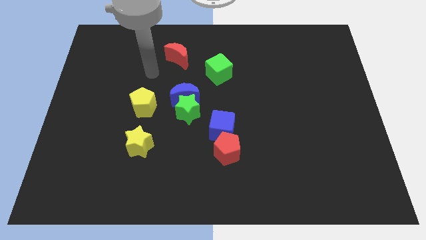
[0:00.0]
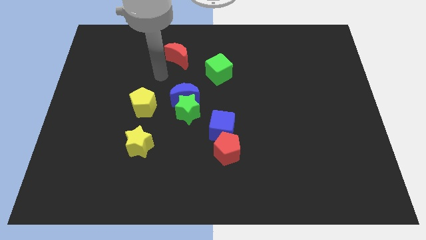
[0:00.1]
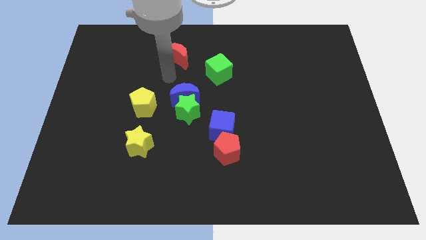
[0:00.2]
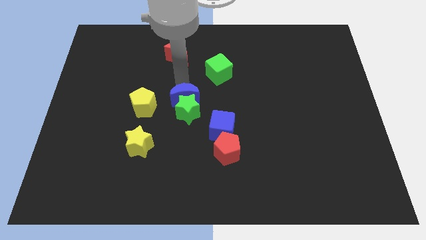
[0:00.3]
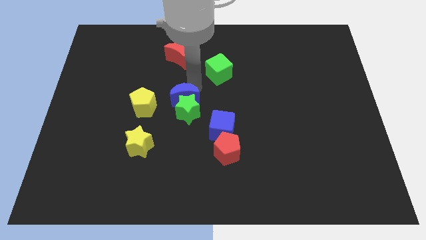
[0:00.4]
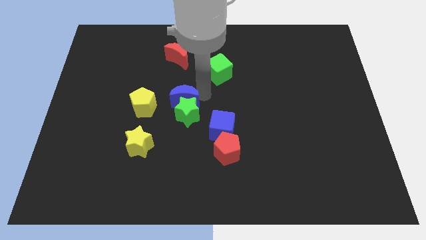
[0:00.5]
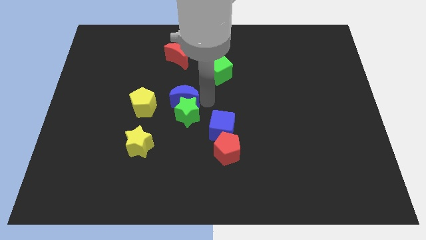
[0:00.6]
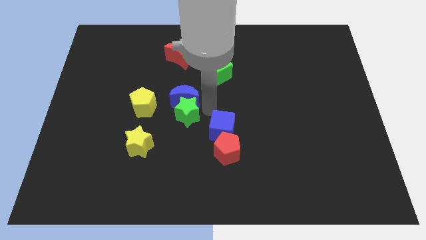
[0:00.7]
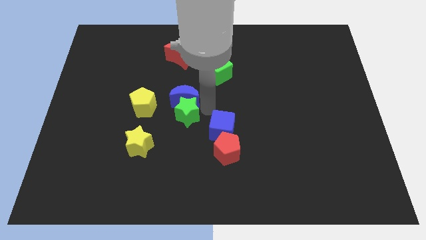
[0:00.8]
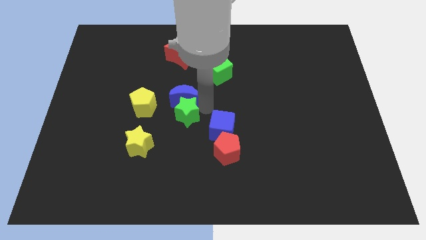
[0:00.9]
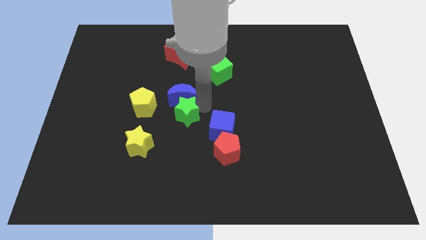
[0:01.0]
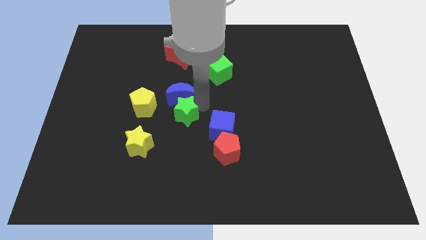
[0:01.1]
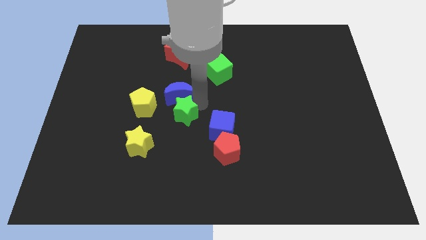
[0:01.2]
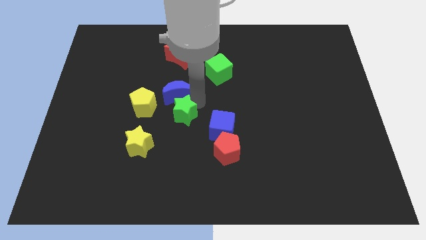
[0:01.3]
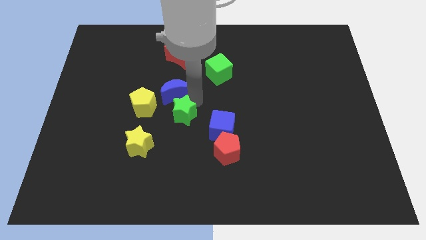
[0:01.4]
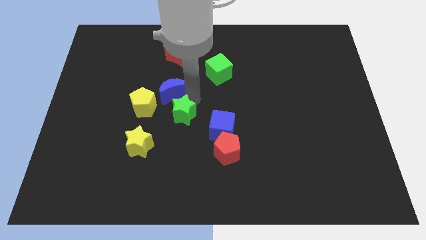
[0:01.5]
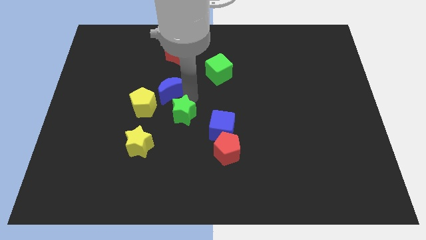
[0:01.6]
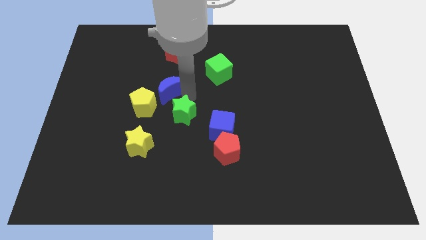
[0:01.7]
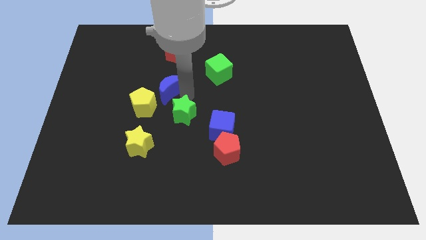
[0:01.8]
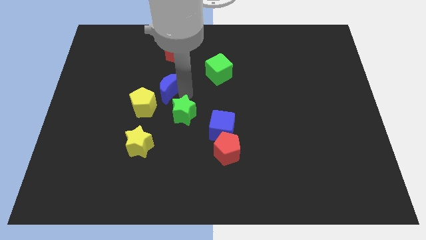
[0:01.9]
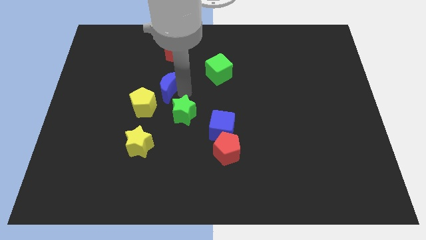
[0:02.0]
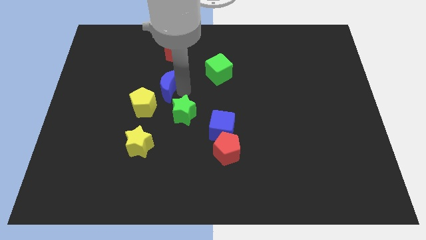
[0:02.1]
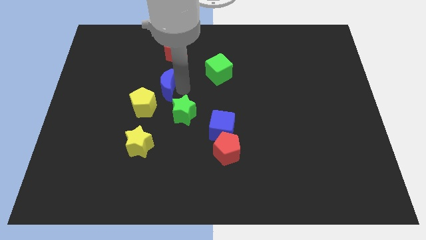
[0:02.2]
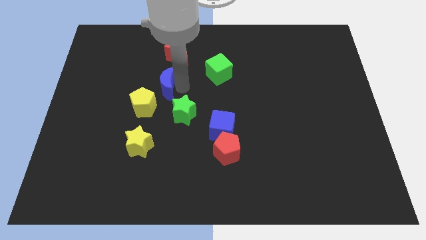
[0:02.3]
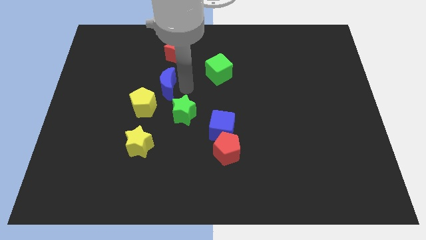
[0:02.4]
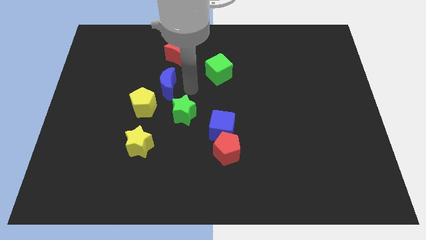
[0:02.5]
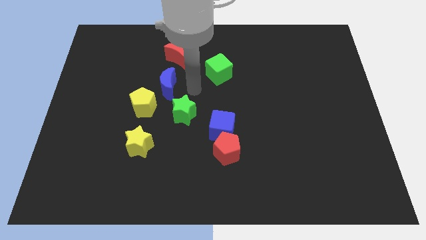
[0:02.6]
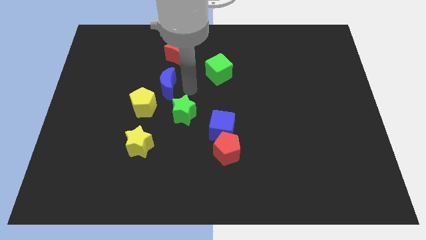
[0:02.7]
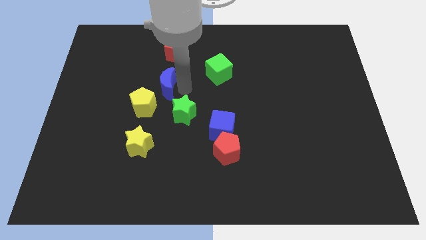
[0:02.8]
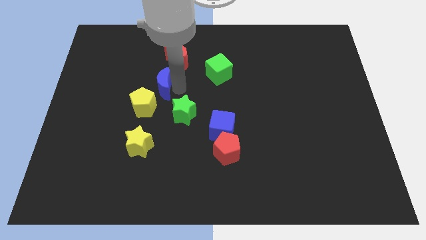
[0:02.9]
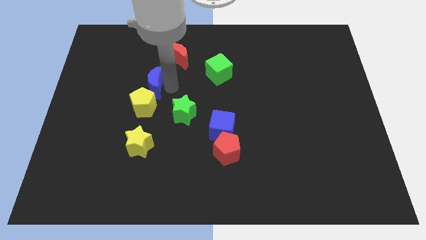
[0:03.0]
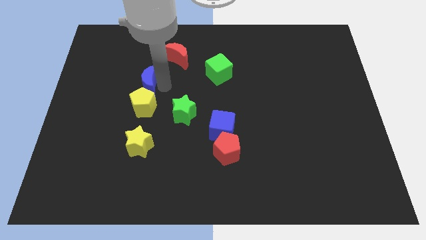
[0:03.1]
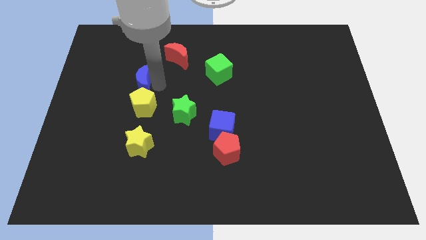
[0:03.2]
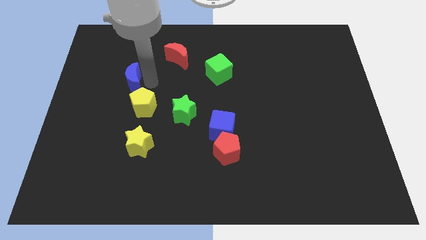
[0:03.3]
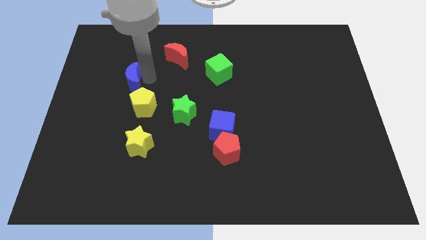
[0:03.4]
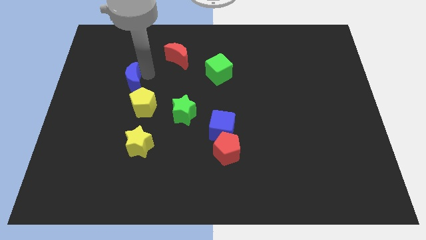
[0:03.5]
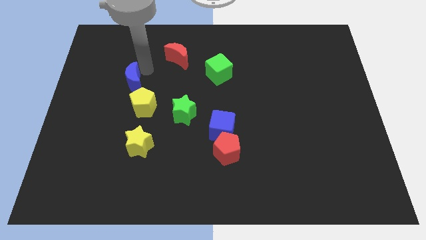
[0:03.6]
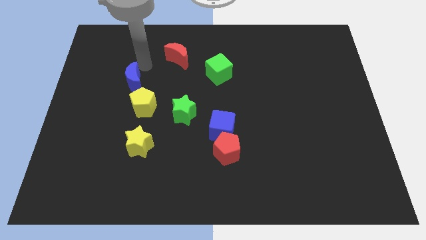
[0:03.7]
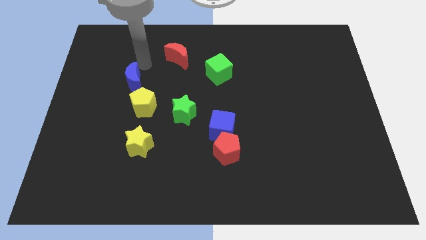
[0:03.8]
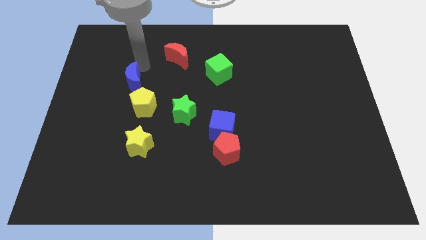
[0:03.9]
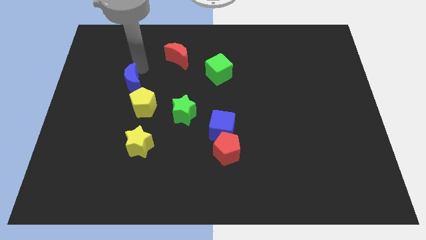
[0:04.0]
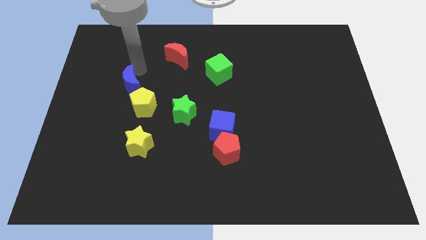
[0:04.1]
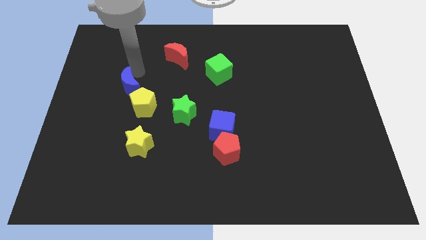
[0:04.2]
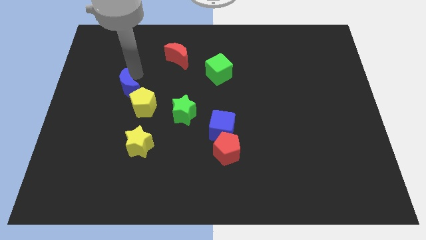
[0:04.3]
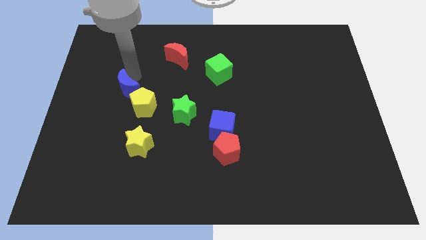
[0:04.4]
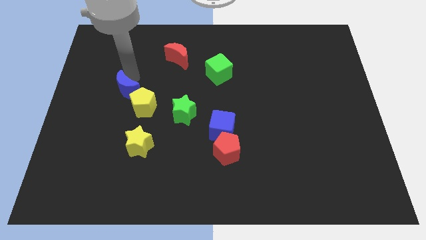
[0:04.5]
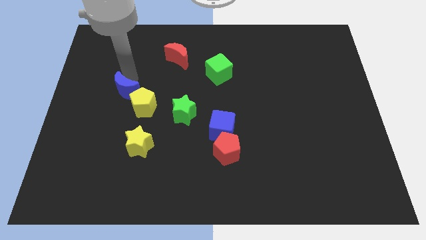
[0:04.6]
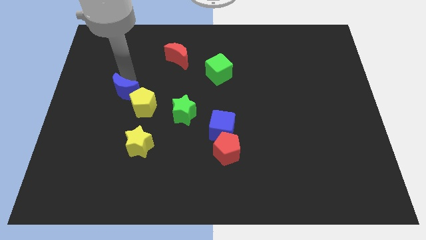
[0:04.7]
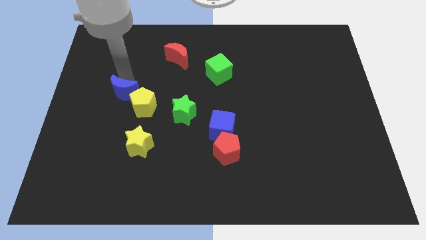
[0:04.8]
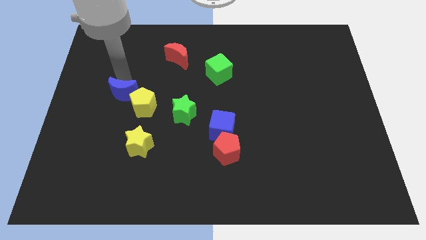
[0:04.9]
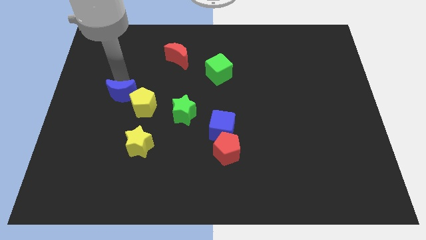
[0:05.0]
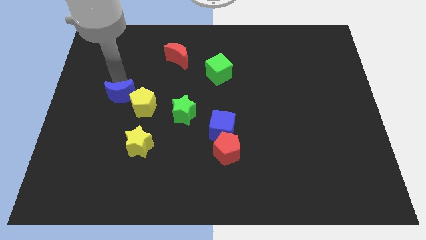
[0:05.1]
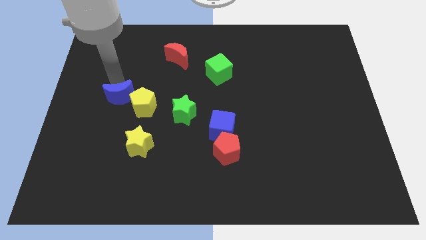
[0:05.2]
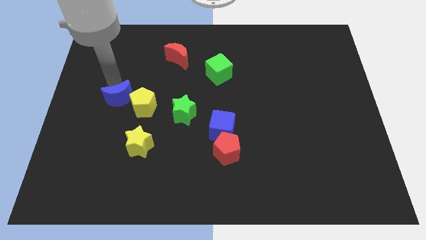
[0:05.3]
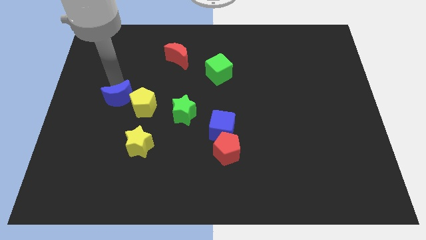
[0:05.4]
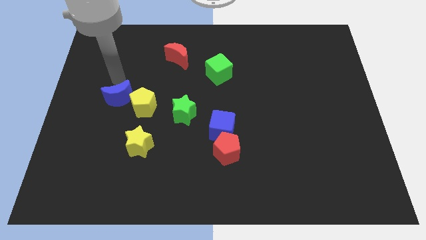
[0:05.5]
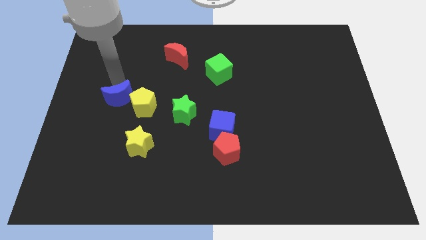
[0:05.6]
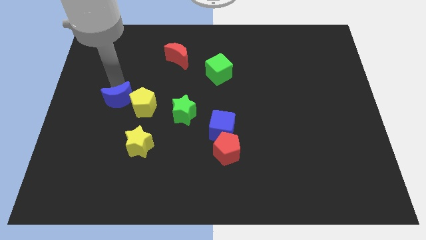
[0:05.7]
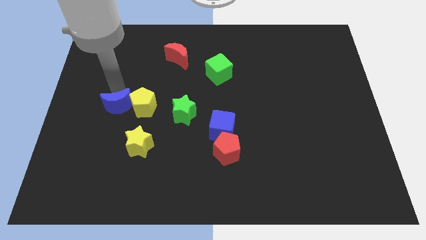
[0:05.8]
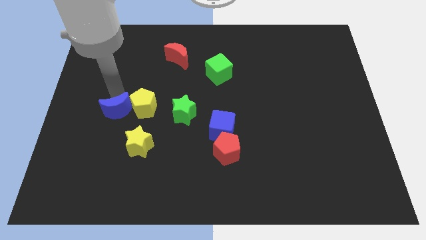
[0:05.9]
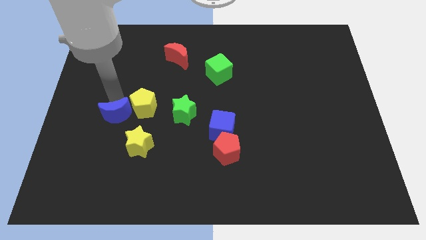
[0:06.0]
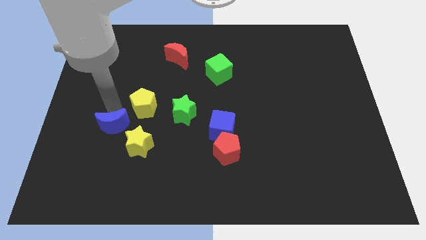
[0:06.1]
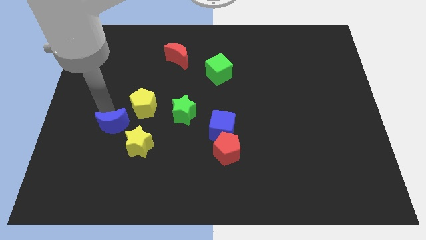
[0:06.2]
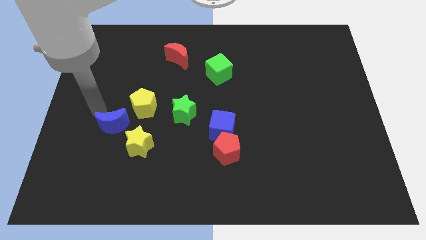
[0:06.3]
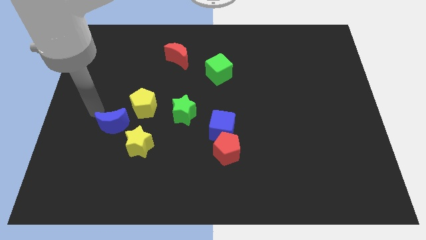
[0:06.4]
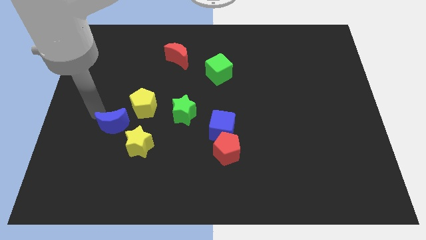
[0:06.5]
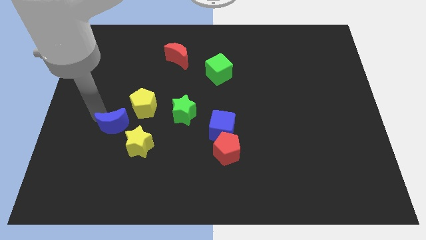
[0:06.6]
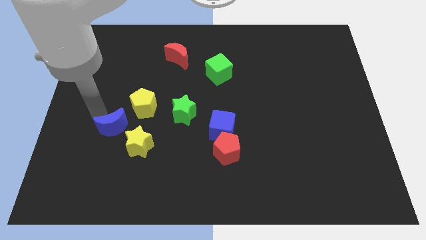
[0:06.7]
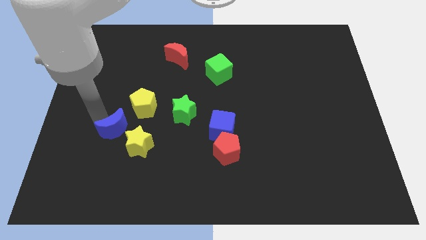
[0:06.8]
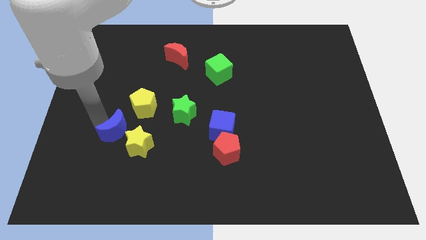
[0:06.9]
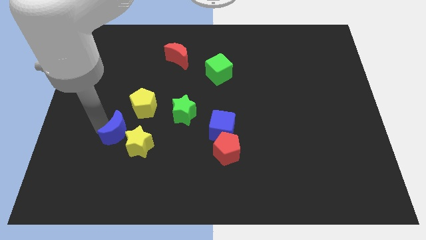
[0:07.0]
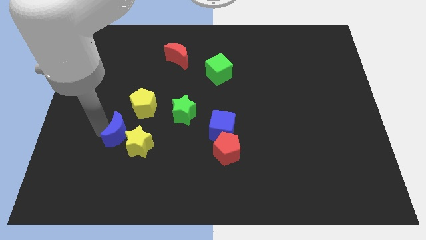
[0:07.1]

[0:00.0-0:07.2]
slide the blue moon towards the yellow star

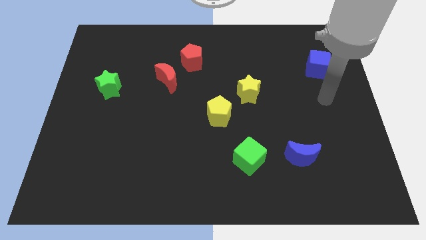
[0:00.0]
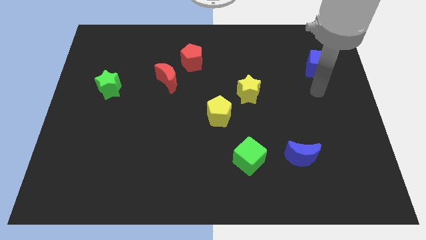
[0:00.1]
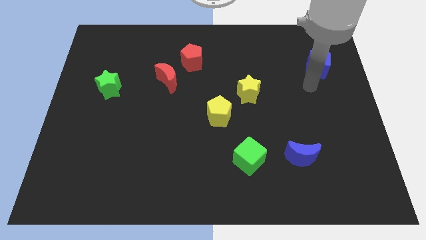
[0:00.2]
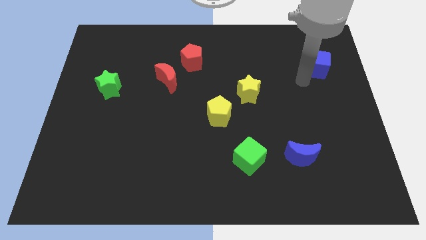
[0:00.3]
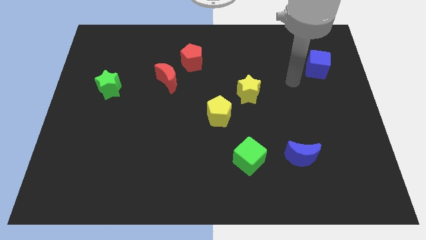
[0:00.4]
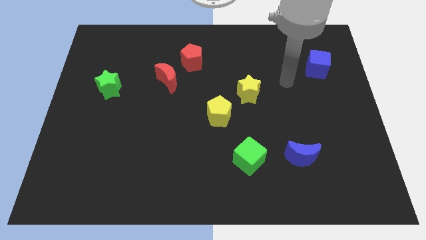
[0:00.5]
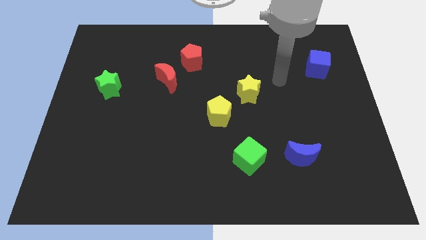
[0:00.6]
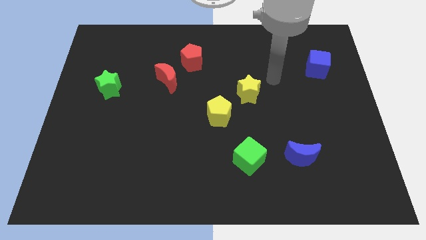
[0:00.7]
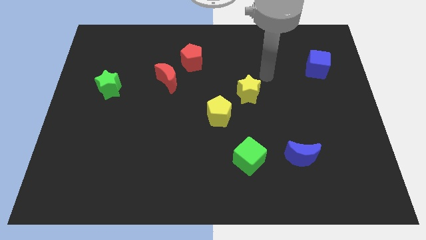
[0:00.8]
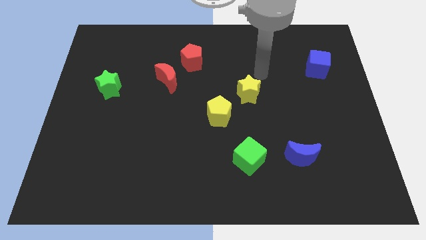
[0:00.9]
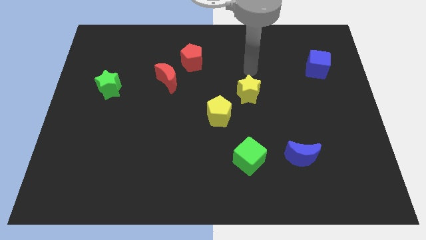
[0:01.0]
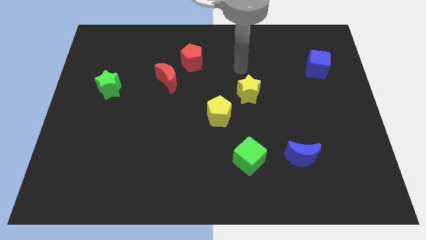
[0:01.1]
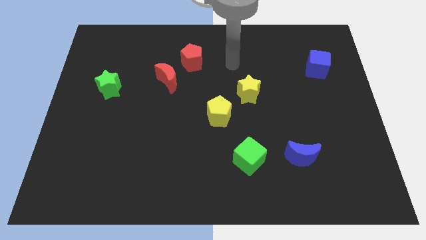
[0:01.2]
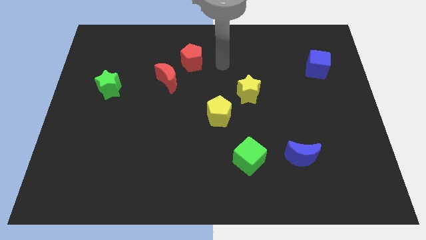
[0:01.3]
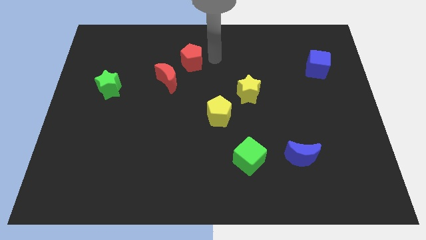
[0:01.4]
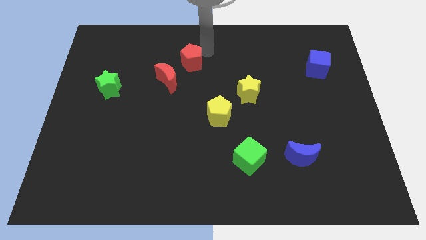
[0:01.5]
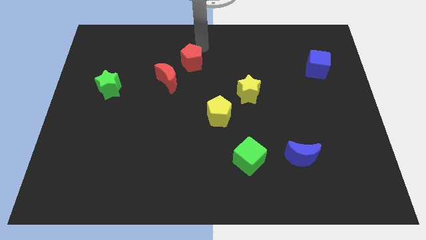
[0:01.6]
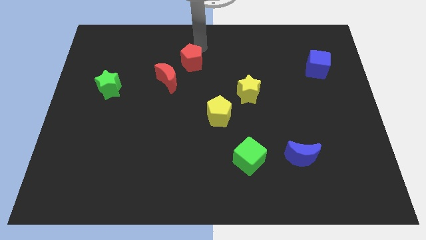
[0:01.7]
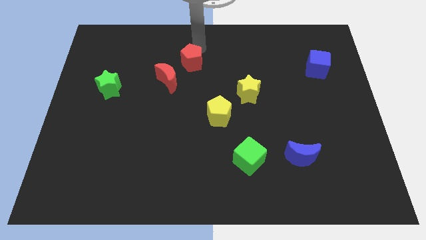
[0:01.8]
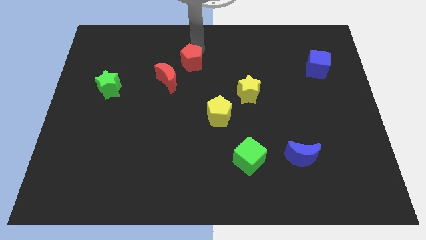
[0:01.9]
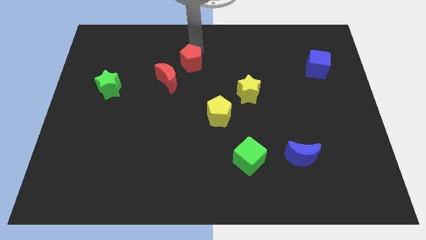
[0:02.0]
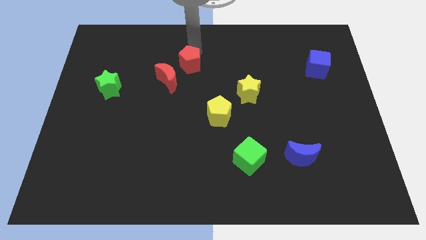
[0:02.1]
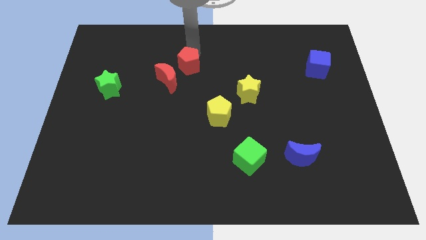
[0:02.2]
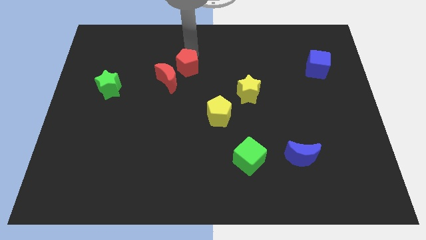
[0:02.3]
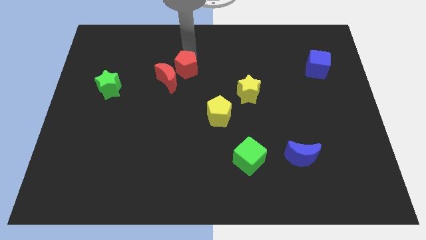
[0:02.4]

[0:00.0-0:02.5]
move the red pentagon next to the red moon
